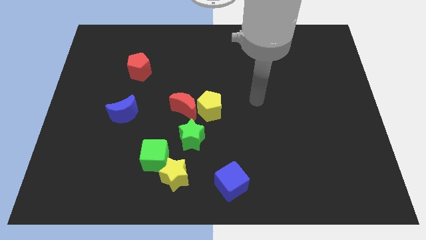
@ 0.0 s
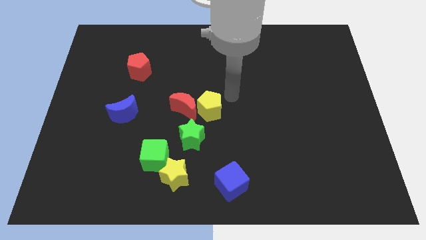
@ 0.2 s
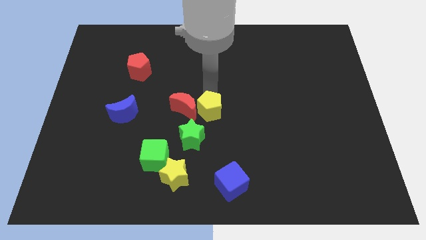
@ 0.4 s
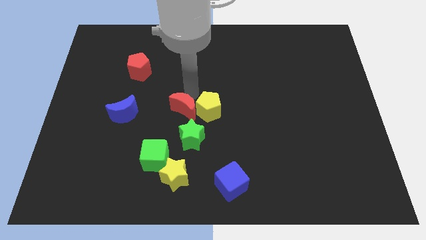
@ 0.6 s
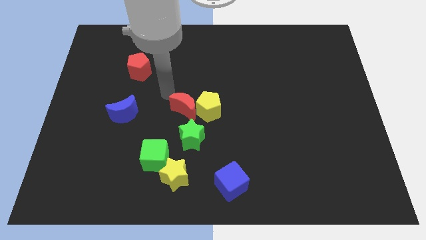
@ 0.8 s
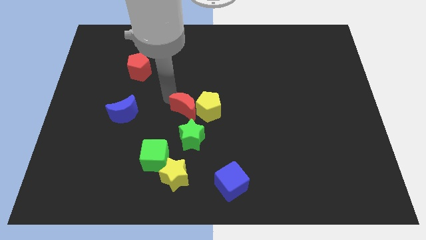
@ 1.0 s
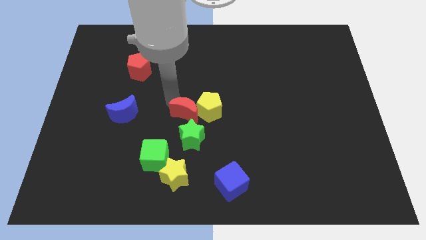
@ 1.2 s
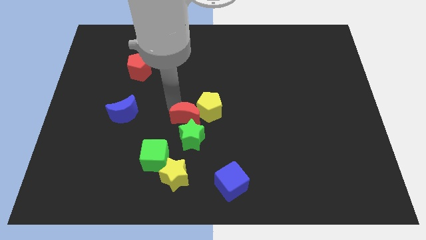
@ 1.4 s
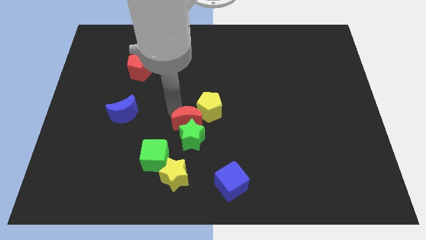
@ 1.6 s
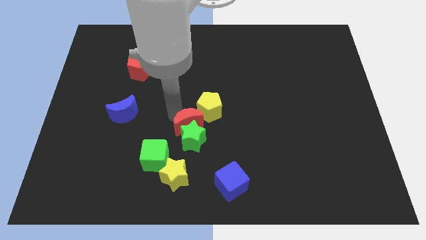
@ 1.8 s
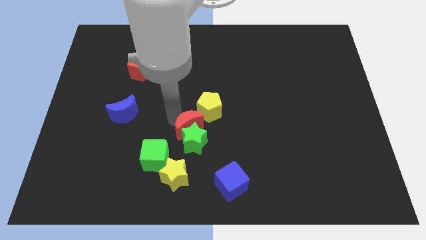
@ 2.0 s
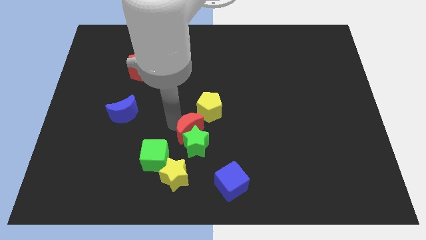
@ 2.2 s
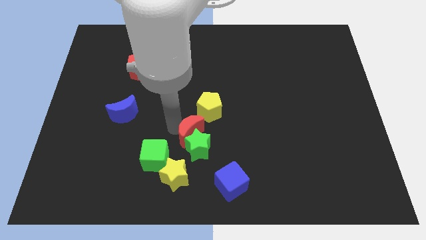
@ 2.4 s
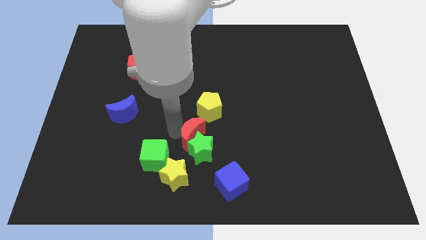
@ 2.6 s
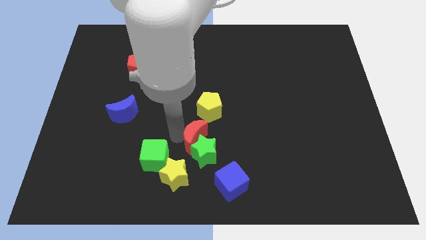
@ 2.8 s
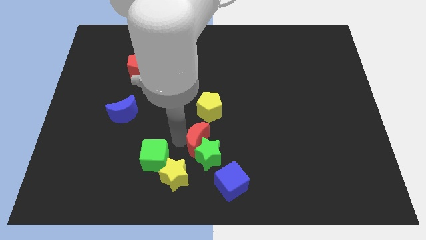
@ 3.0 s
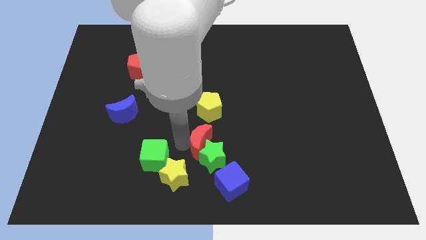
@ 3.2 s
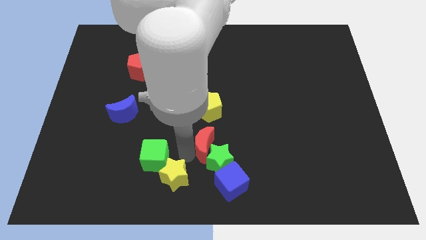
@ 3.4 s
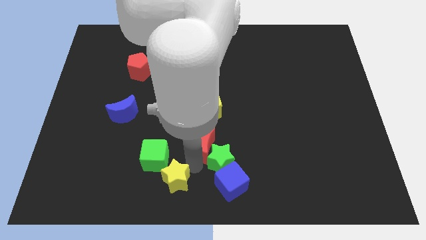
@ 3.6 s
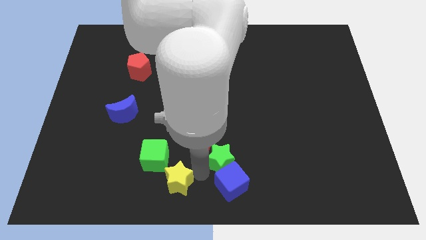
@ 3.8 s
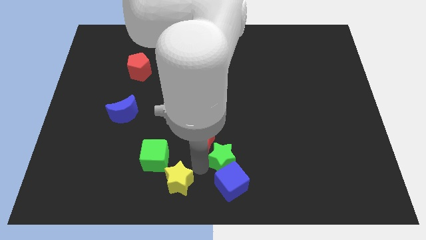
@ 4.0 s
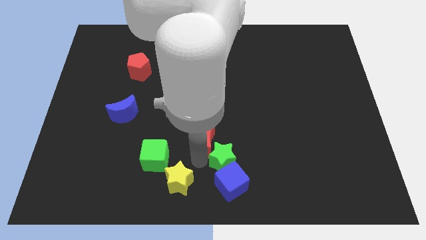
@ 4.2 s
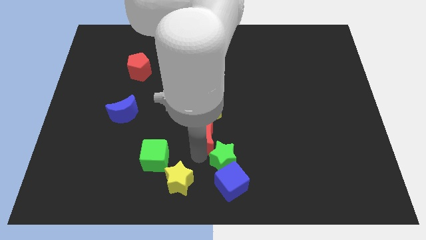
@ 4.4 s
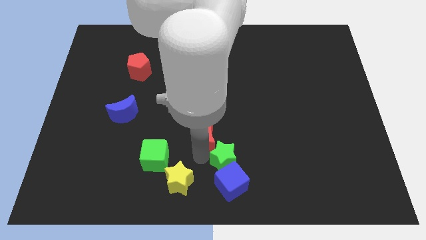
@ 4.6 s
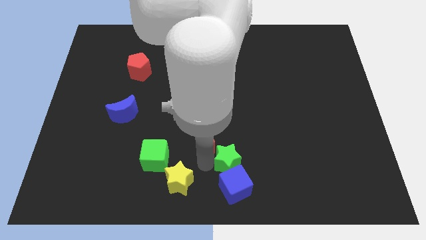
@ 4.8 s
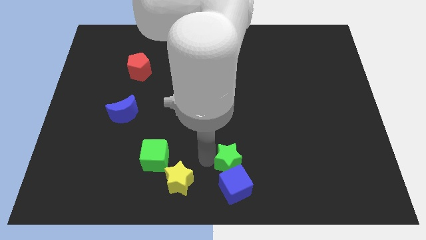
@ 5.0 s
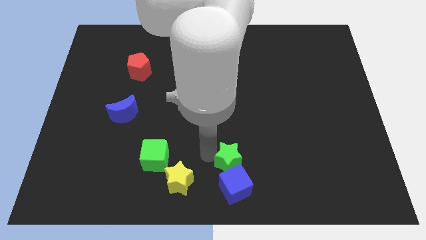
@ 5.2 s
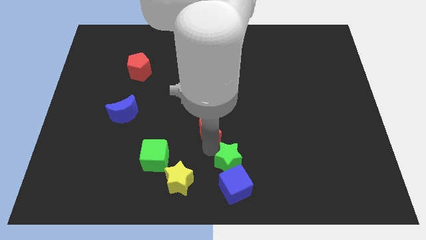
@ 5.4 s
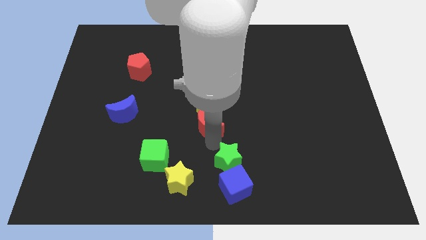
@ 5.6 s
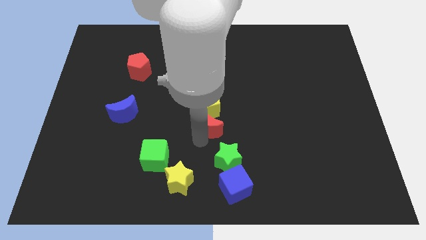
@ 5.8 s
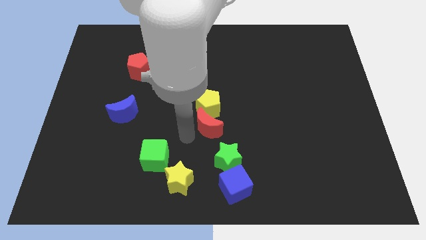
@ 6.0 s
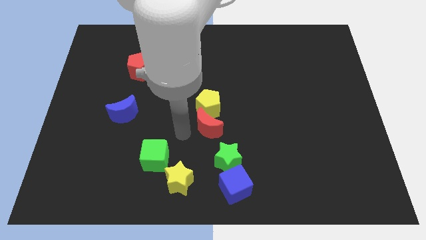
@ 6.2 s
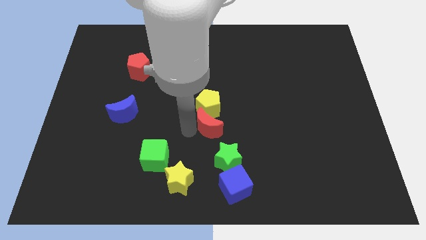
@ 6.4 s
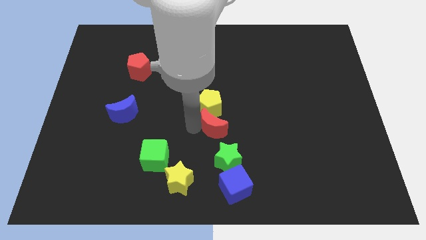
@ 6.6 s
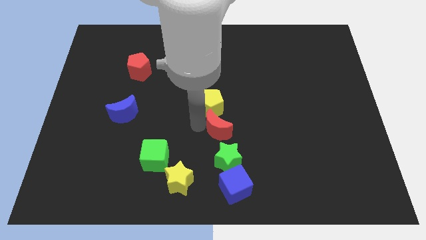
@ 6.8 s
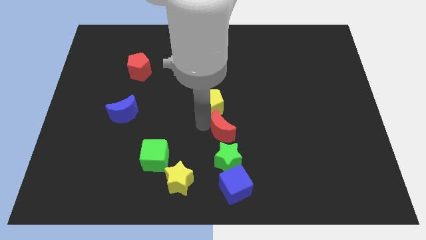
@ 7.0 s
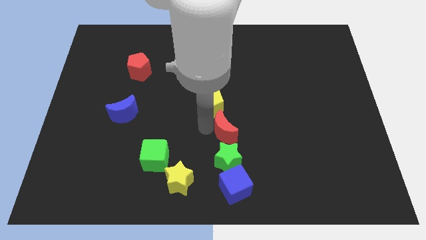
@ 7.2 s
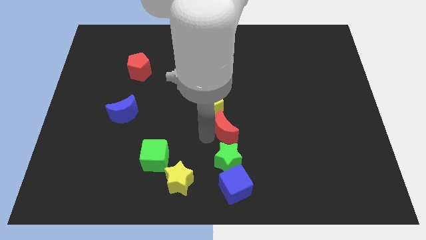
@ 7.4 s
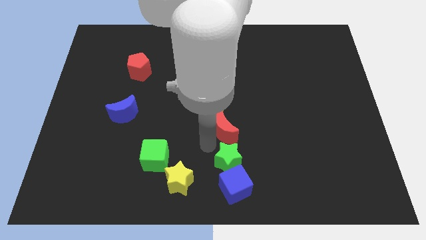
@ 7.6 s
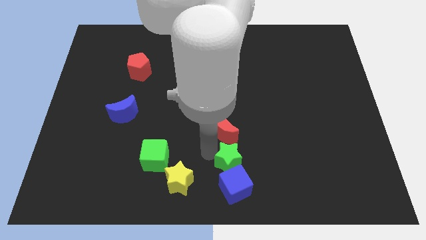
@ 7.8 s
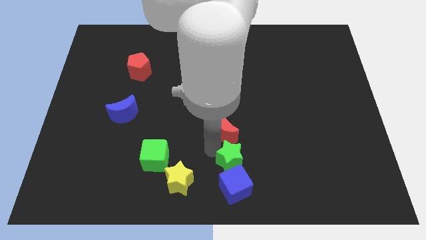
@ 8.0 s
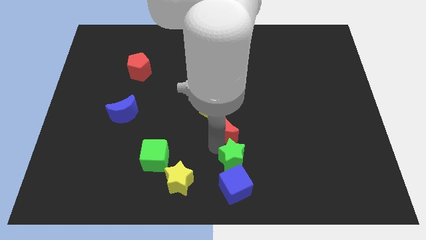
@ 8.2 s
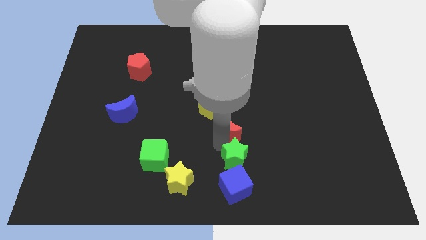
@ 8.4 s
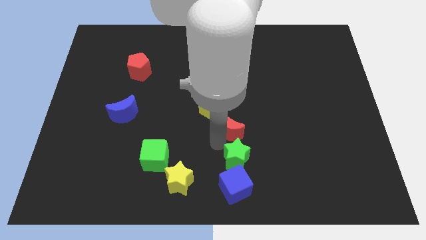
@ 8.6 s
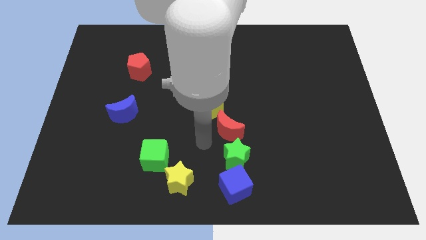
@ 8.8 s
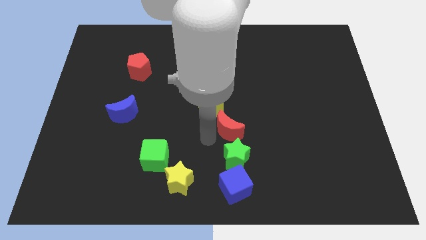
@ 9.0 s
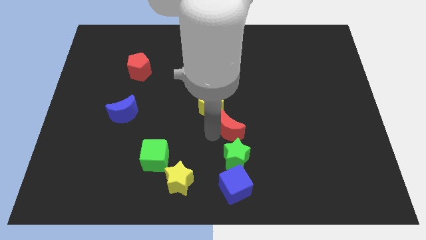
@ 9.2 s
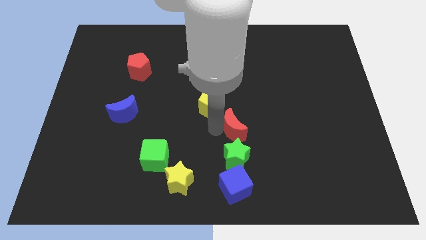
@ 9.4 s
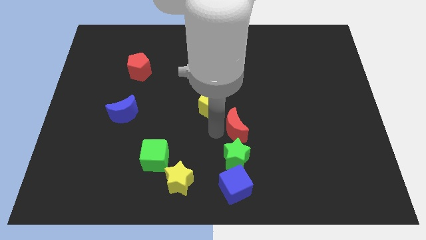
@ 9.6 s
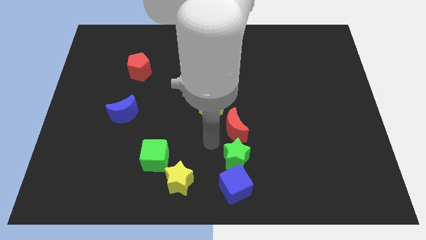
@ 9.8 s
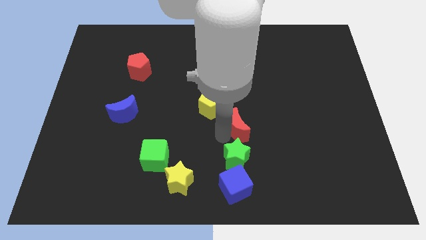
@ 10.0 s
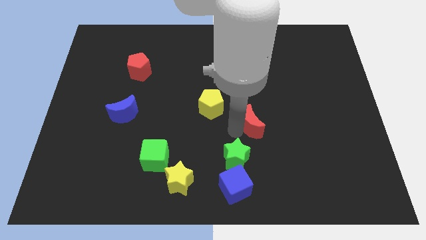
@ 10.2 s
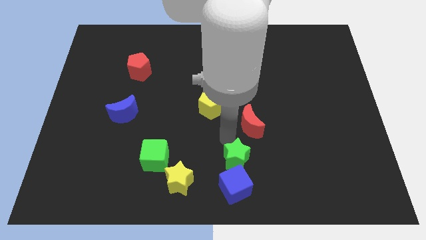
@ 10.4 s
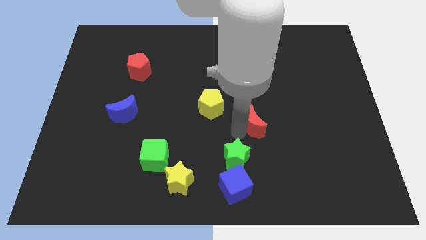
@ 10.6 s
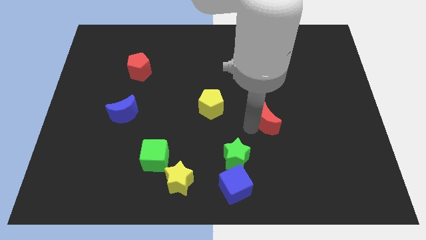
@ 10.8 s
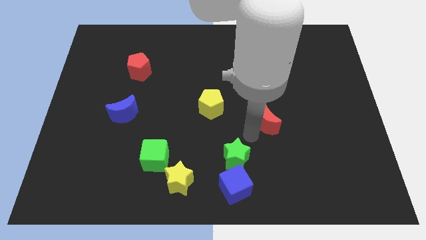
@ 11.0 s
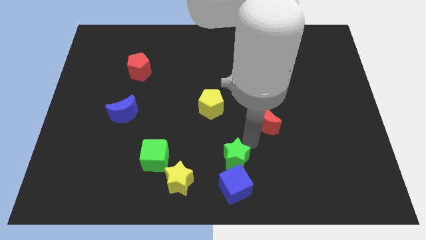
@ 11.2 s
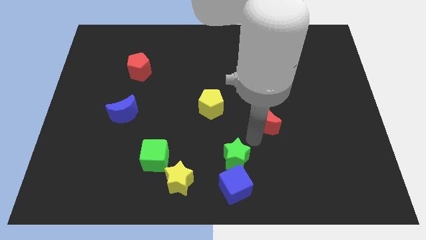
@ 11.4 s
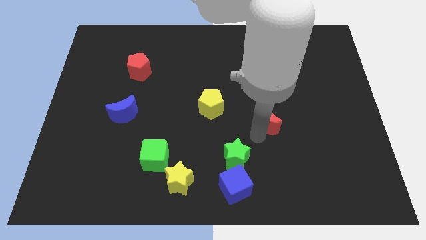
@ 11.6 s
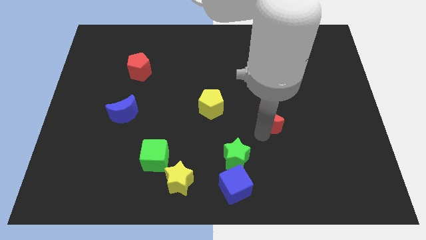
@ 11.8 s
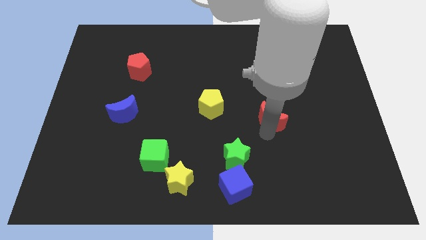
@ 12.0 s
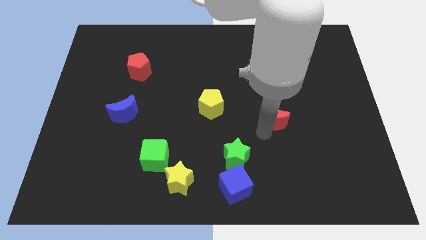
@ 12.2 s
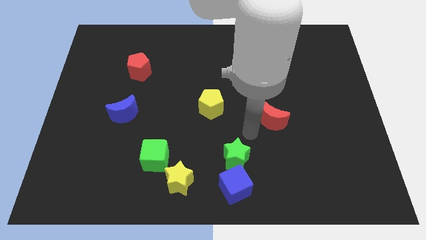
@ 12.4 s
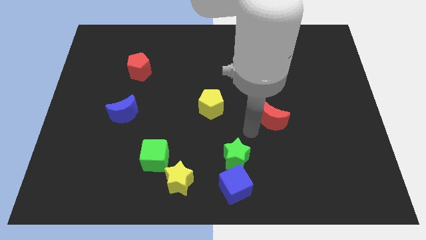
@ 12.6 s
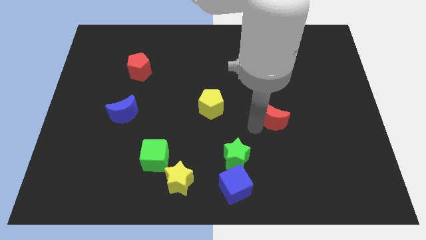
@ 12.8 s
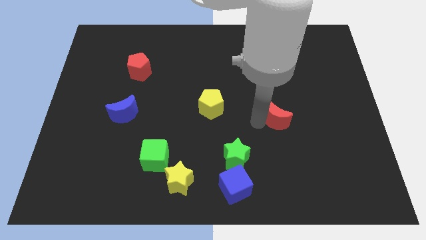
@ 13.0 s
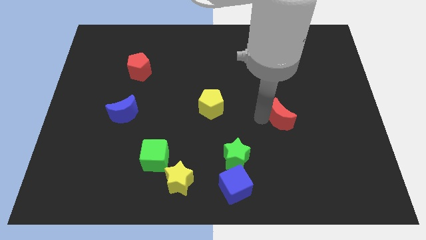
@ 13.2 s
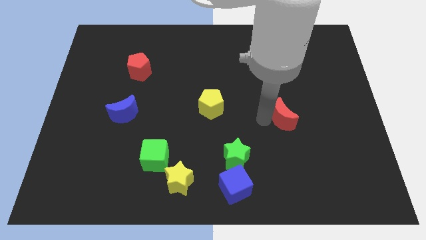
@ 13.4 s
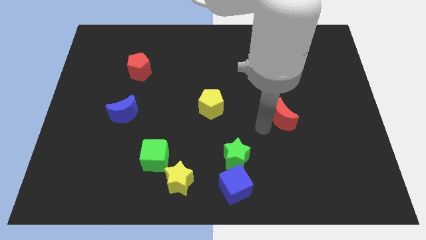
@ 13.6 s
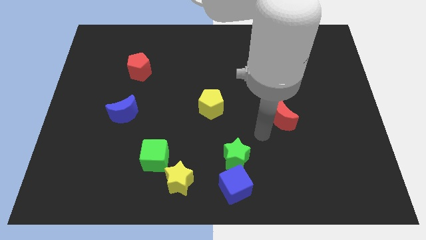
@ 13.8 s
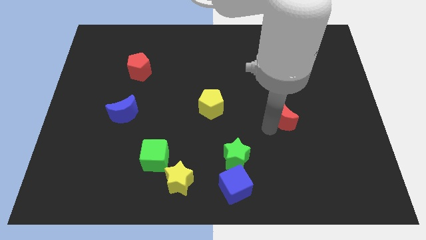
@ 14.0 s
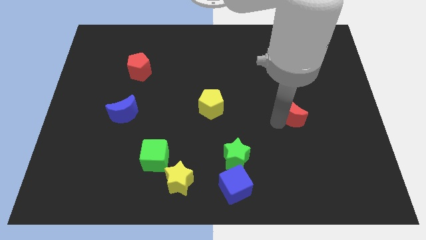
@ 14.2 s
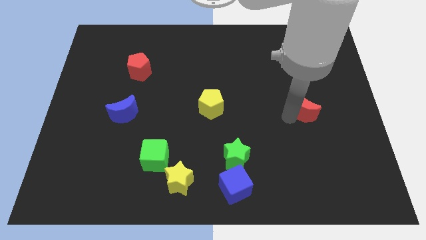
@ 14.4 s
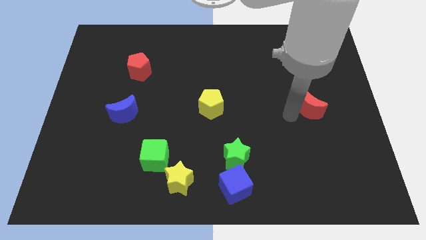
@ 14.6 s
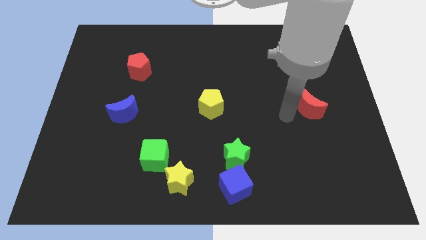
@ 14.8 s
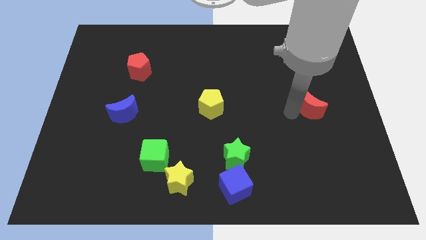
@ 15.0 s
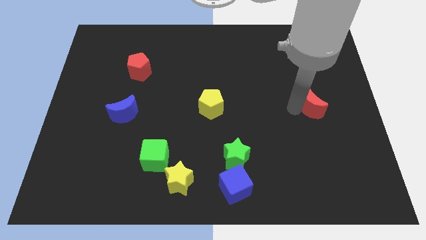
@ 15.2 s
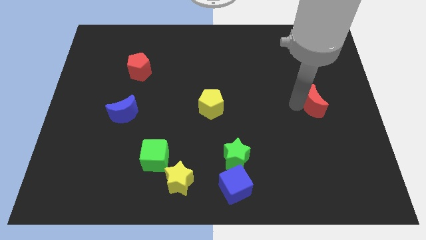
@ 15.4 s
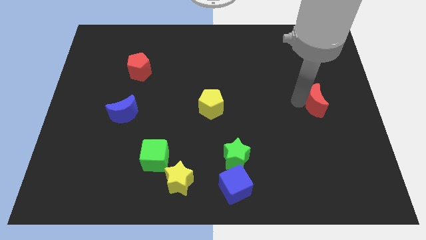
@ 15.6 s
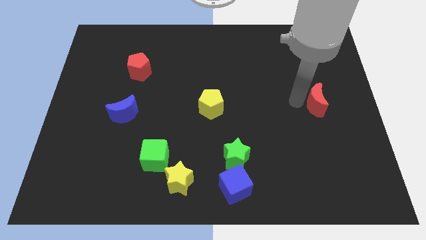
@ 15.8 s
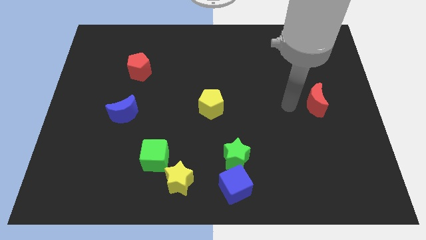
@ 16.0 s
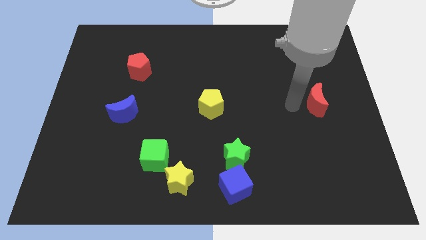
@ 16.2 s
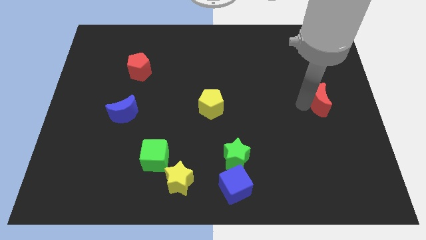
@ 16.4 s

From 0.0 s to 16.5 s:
slide the red moon to the right side
